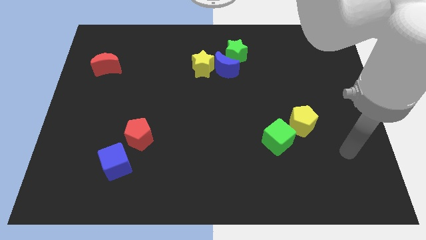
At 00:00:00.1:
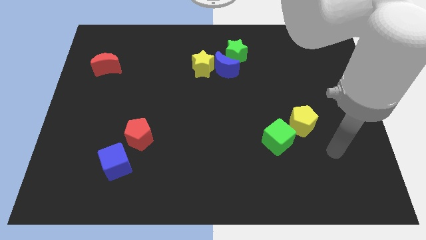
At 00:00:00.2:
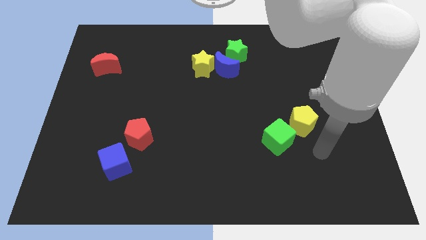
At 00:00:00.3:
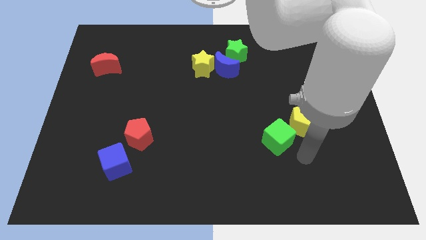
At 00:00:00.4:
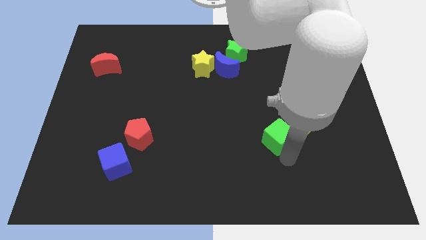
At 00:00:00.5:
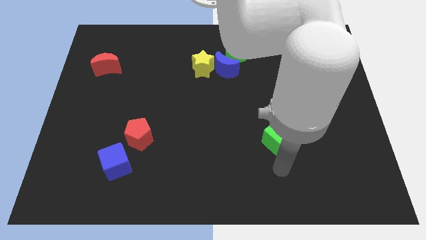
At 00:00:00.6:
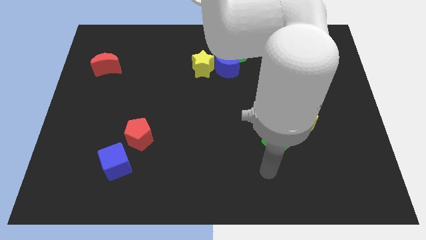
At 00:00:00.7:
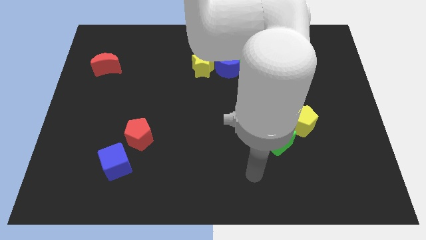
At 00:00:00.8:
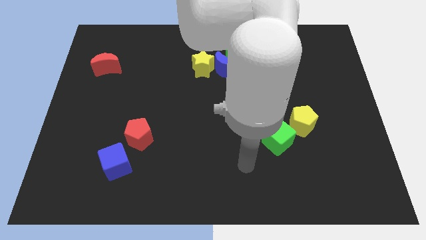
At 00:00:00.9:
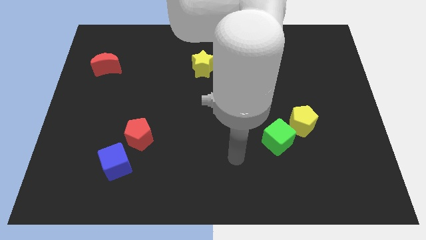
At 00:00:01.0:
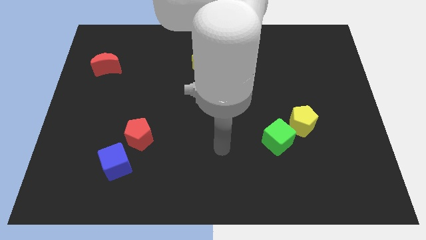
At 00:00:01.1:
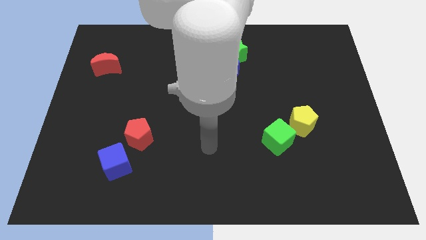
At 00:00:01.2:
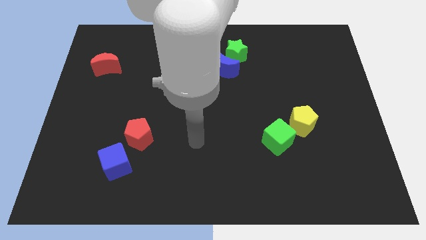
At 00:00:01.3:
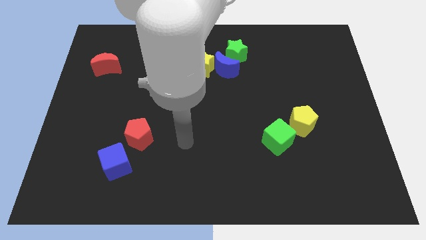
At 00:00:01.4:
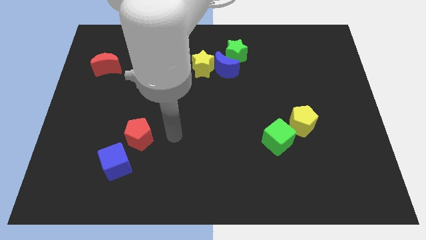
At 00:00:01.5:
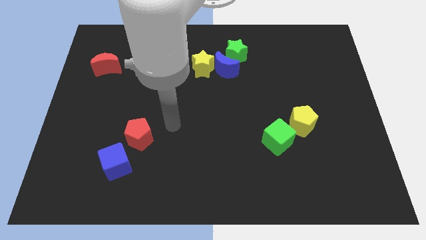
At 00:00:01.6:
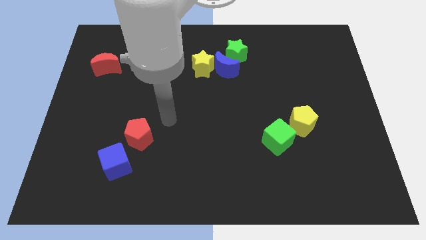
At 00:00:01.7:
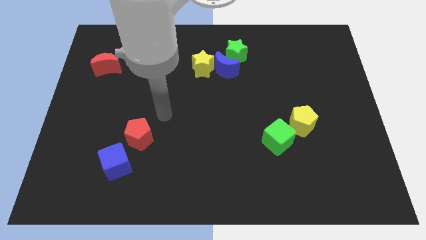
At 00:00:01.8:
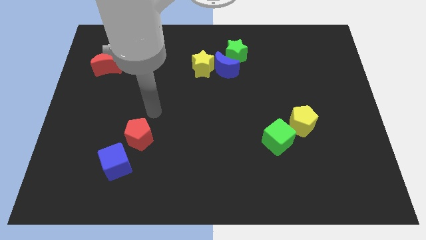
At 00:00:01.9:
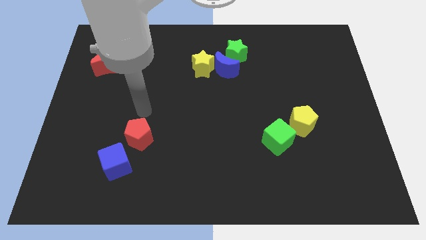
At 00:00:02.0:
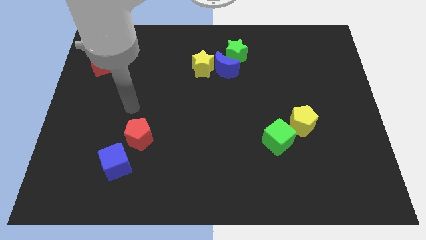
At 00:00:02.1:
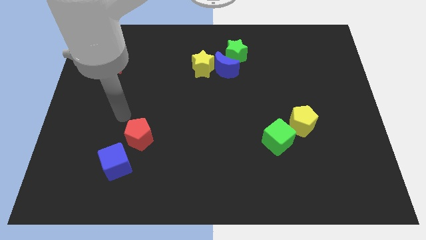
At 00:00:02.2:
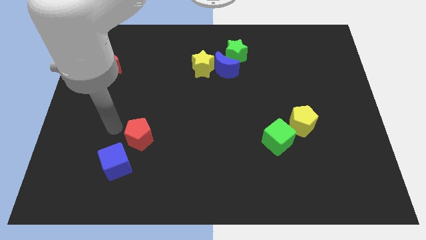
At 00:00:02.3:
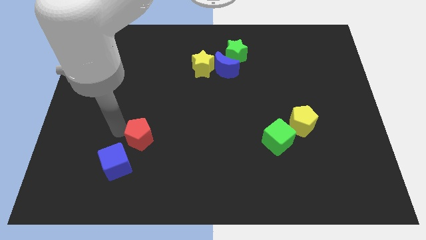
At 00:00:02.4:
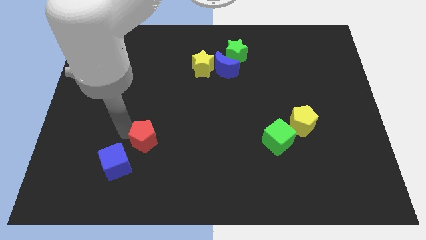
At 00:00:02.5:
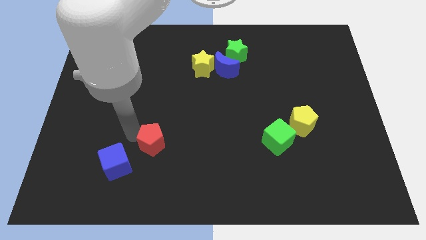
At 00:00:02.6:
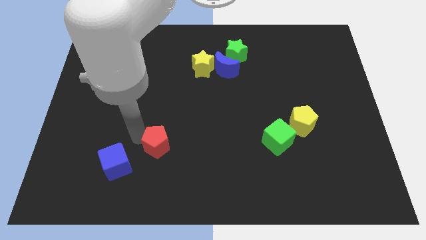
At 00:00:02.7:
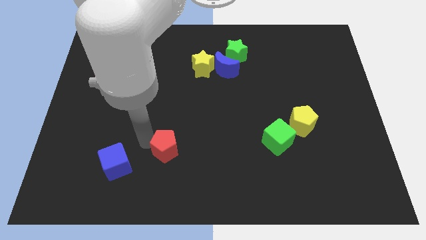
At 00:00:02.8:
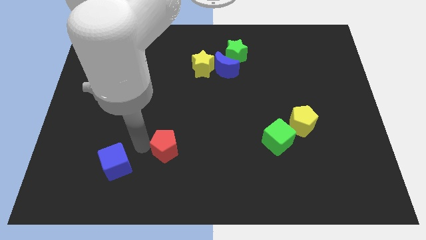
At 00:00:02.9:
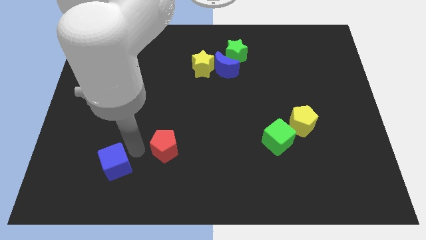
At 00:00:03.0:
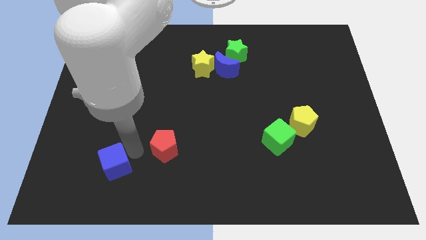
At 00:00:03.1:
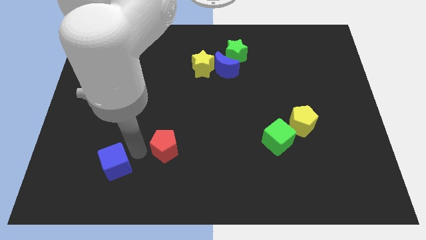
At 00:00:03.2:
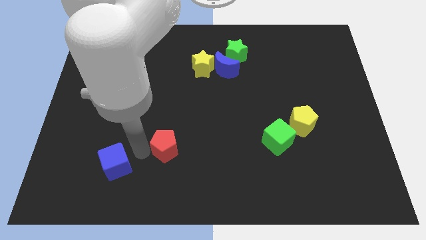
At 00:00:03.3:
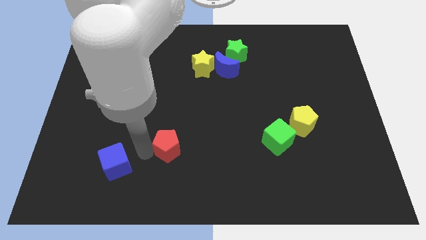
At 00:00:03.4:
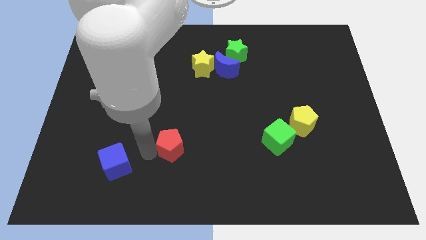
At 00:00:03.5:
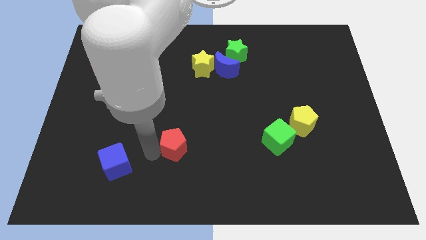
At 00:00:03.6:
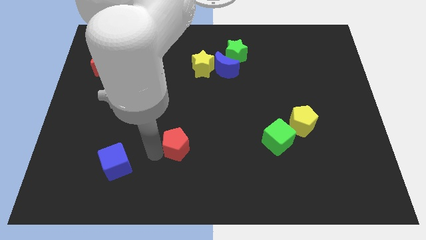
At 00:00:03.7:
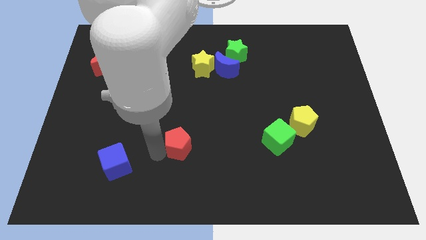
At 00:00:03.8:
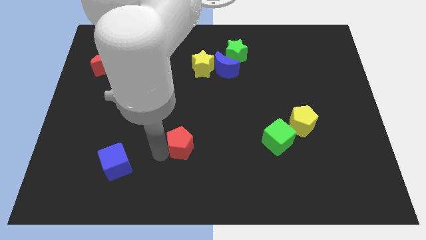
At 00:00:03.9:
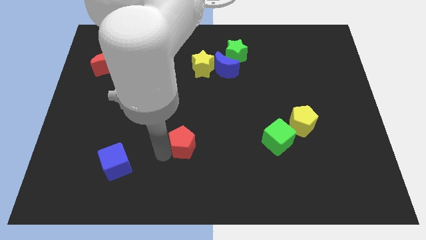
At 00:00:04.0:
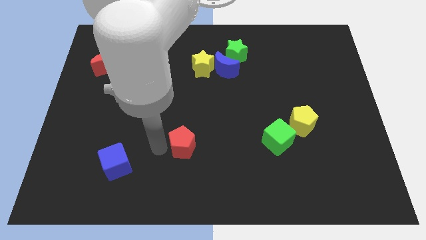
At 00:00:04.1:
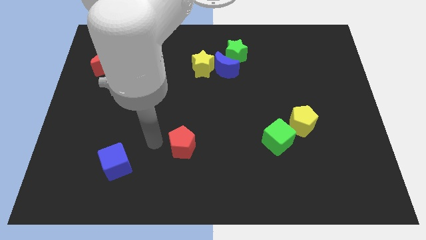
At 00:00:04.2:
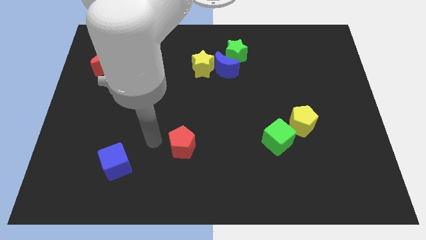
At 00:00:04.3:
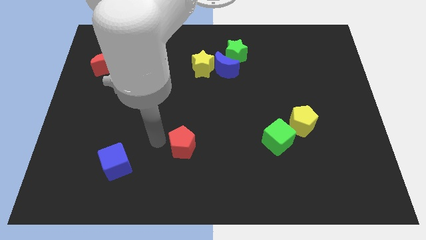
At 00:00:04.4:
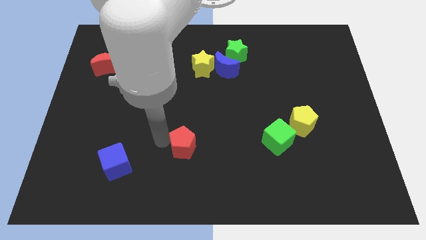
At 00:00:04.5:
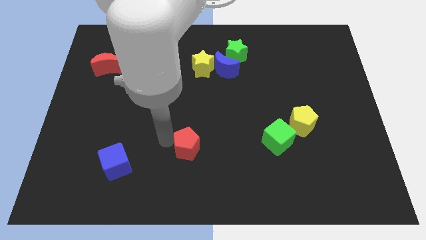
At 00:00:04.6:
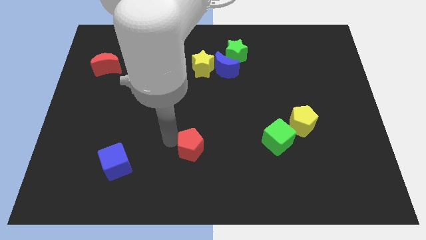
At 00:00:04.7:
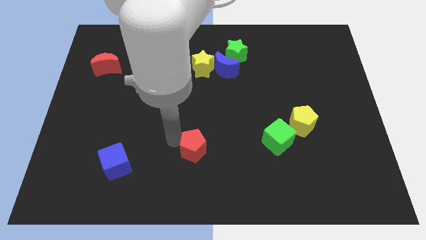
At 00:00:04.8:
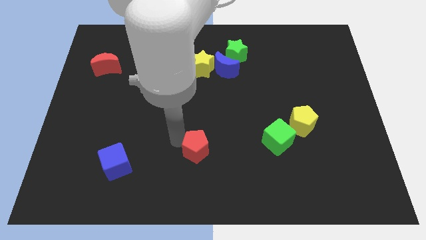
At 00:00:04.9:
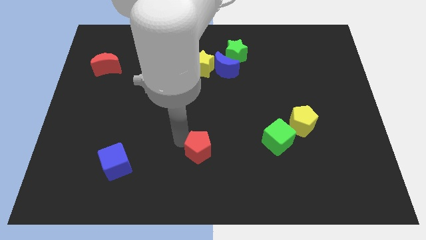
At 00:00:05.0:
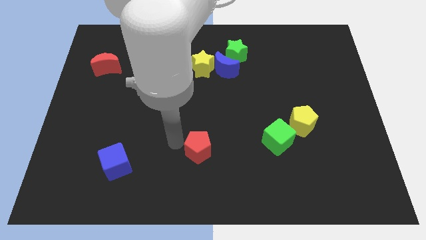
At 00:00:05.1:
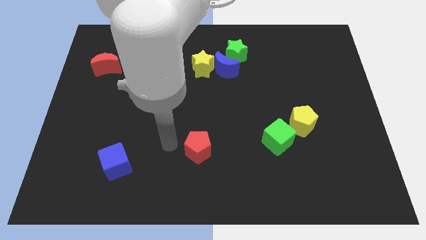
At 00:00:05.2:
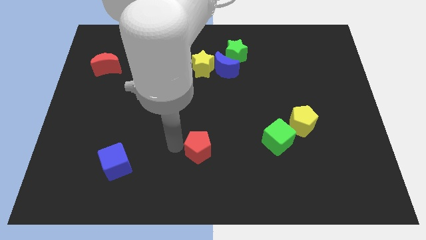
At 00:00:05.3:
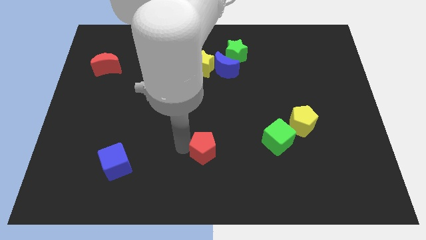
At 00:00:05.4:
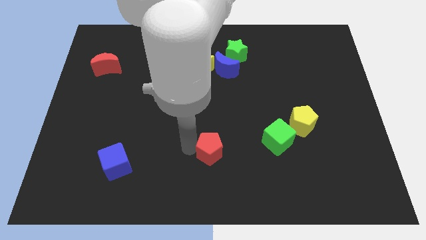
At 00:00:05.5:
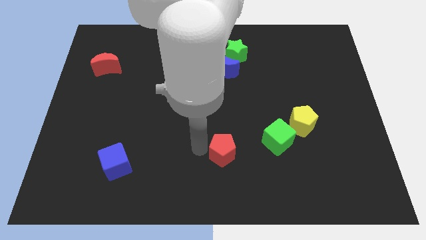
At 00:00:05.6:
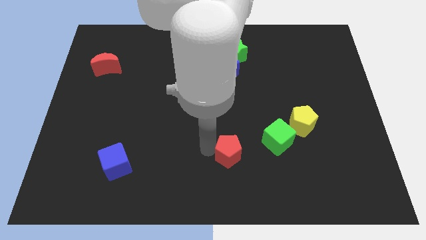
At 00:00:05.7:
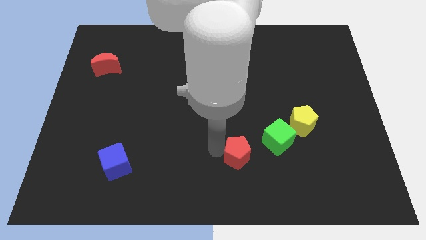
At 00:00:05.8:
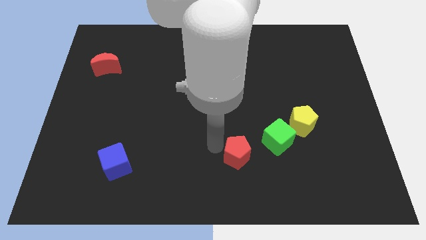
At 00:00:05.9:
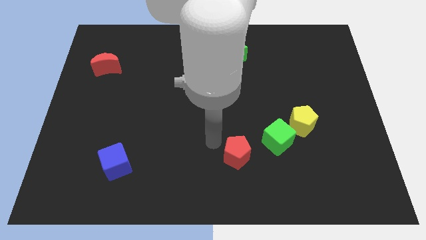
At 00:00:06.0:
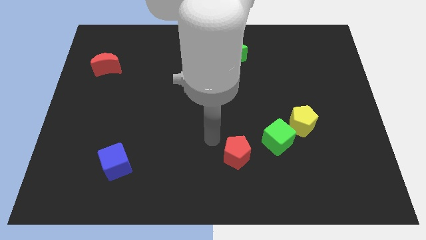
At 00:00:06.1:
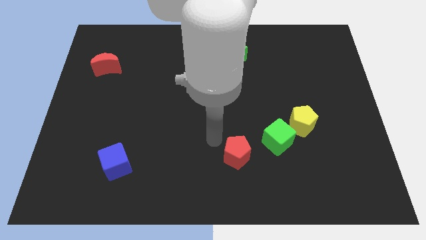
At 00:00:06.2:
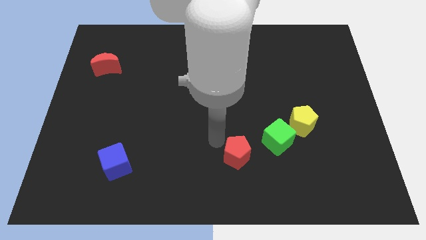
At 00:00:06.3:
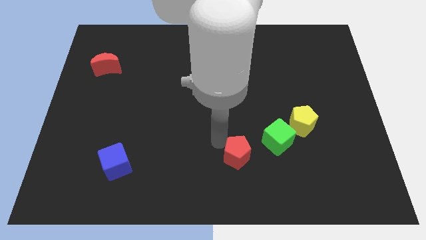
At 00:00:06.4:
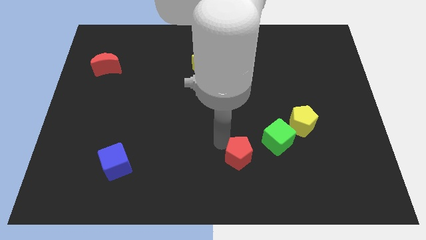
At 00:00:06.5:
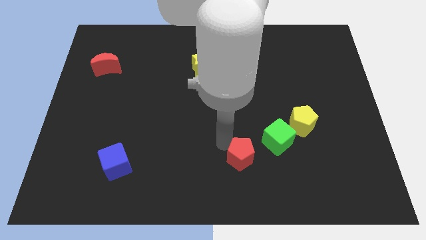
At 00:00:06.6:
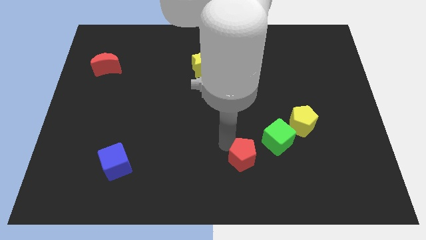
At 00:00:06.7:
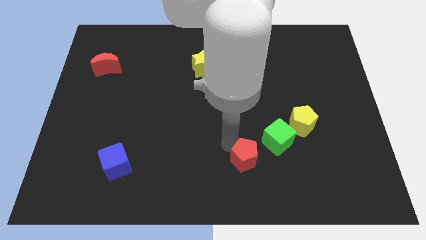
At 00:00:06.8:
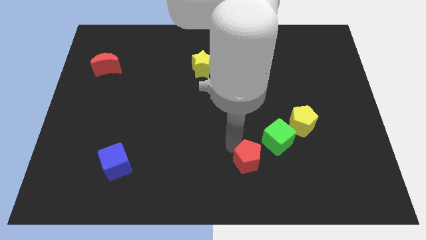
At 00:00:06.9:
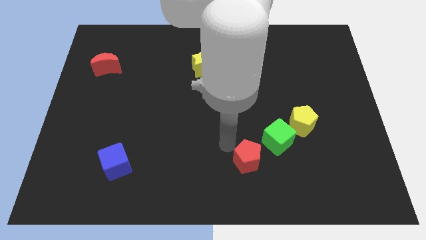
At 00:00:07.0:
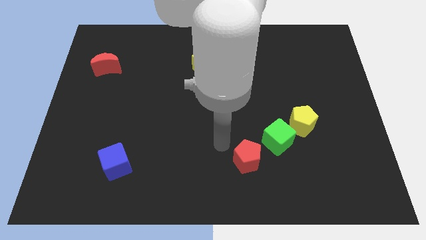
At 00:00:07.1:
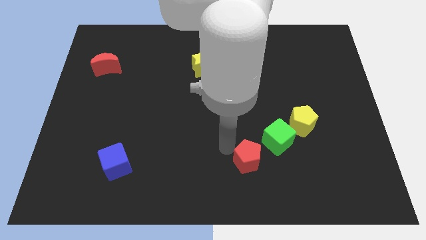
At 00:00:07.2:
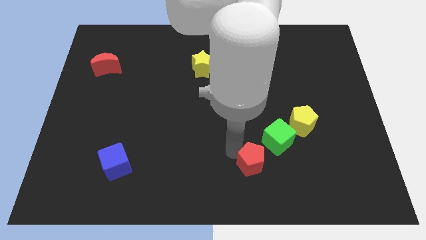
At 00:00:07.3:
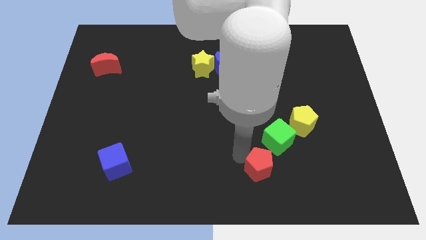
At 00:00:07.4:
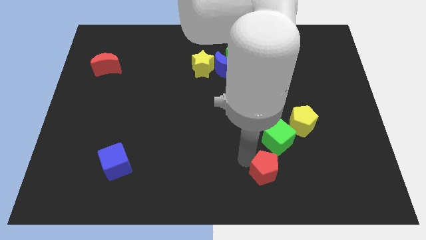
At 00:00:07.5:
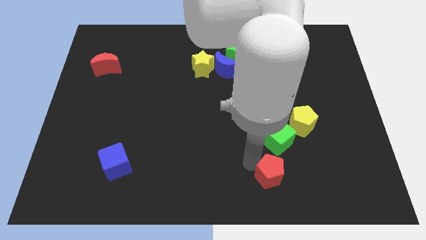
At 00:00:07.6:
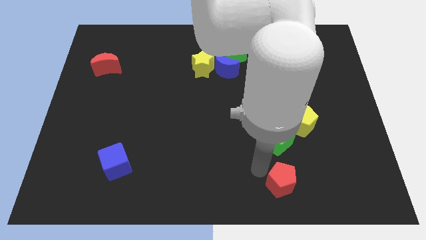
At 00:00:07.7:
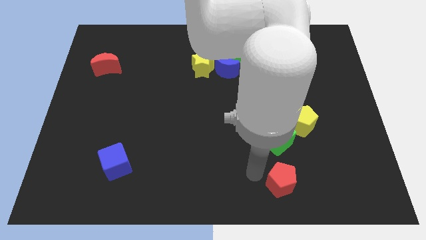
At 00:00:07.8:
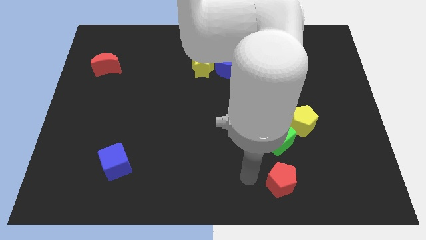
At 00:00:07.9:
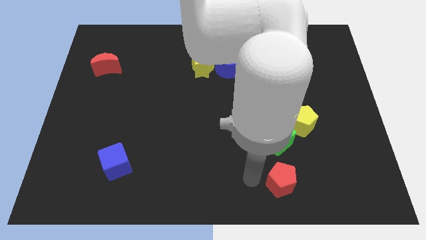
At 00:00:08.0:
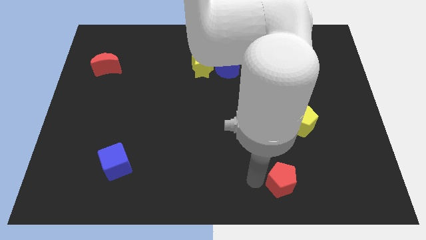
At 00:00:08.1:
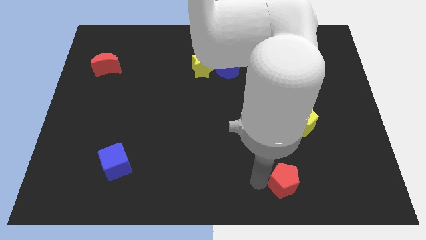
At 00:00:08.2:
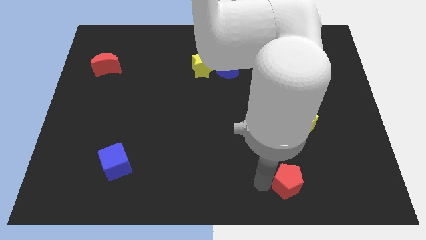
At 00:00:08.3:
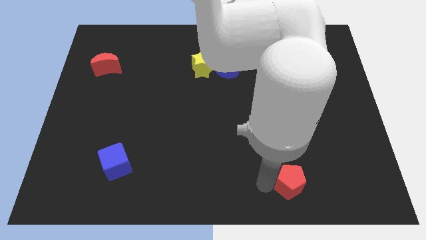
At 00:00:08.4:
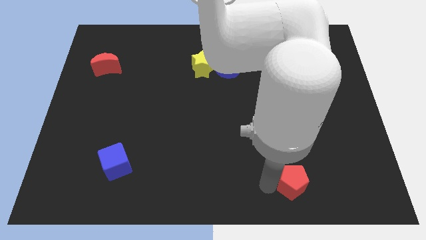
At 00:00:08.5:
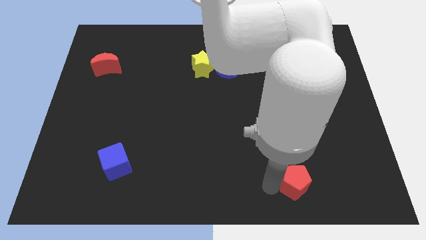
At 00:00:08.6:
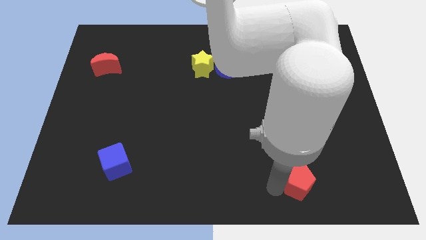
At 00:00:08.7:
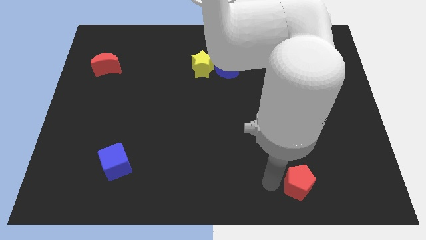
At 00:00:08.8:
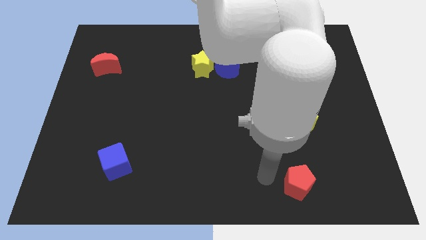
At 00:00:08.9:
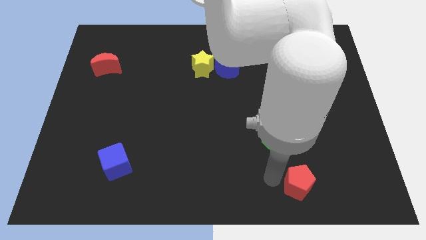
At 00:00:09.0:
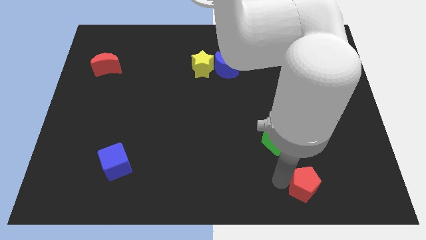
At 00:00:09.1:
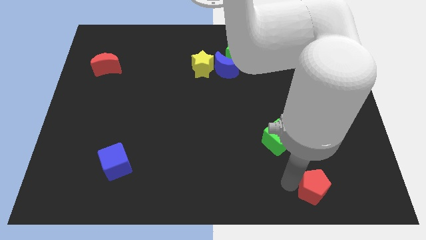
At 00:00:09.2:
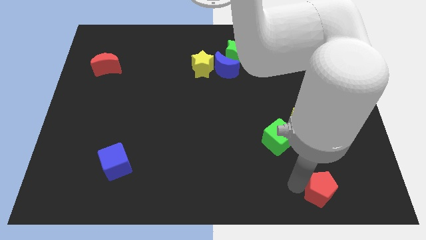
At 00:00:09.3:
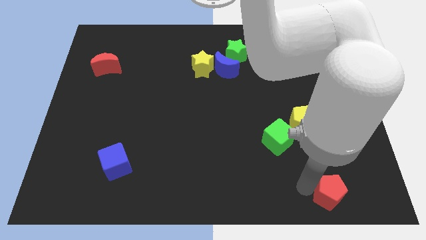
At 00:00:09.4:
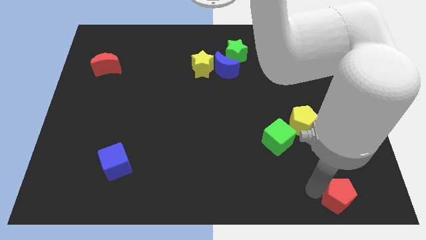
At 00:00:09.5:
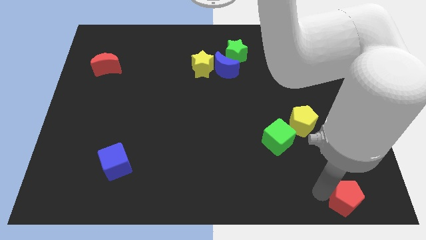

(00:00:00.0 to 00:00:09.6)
push the red pentagon to the bottom right of the board
